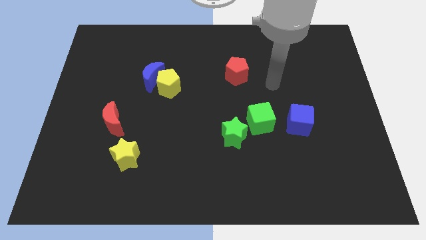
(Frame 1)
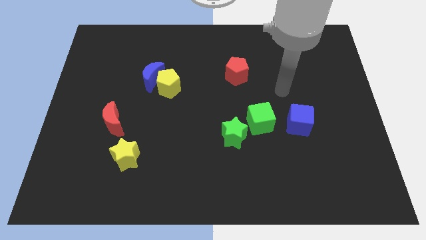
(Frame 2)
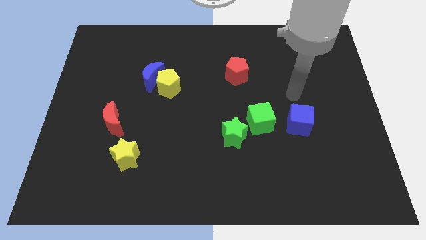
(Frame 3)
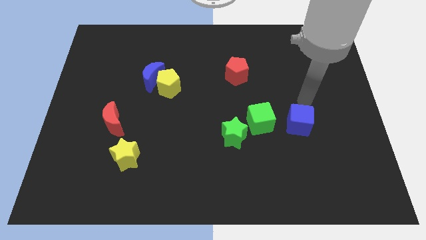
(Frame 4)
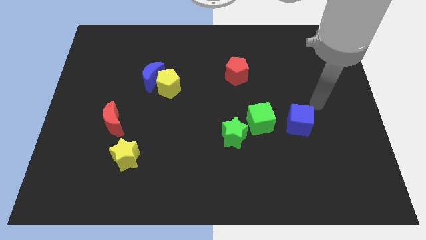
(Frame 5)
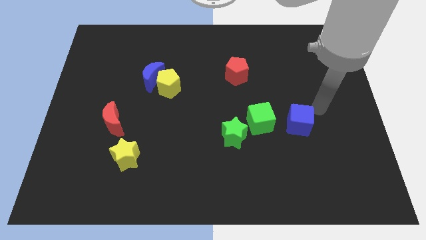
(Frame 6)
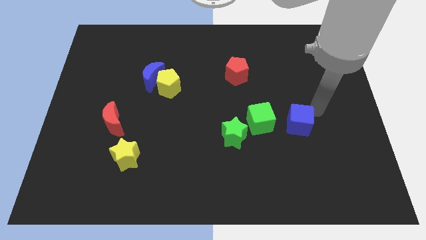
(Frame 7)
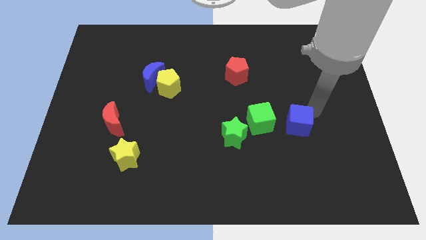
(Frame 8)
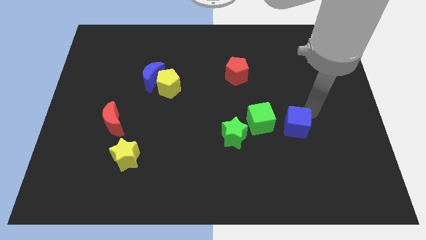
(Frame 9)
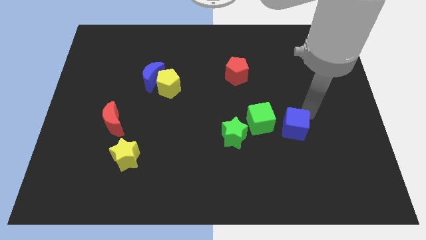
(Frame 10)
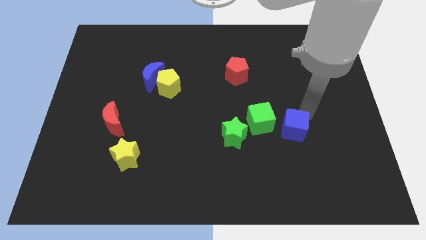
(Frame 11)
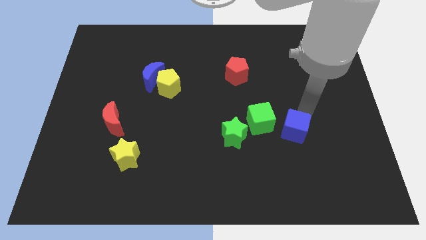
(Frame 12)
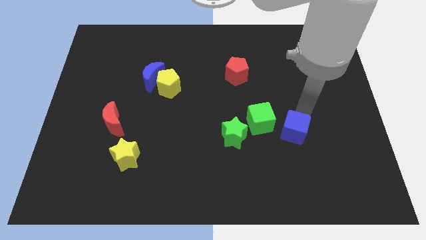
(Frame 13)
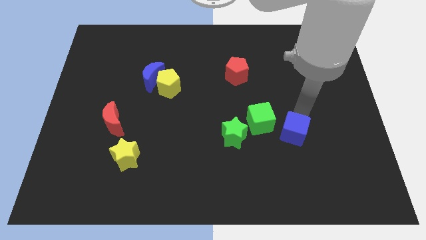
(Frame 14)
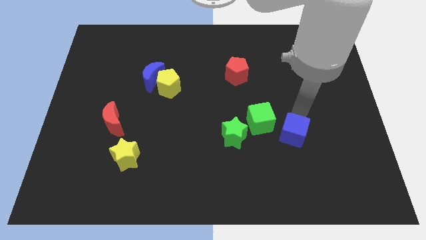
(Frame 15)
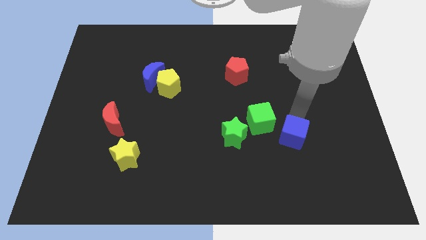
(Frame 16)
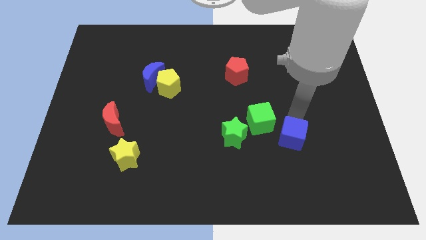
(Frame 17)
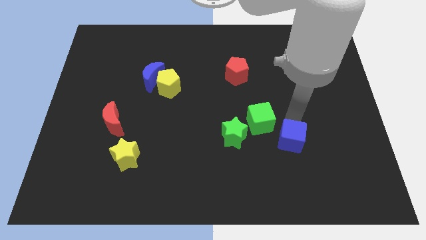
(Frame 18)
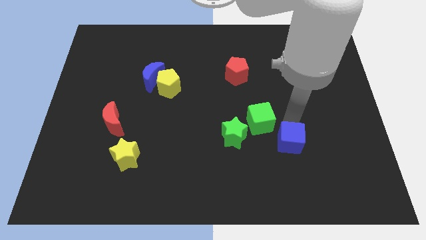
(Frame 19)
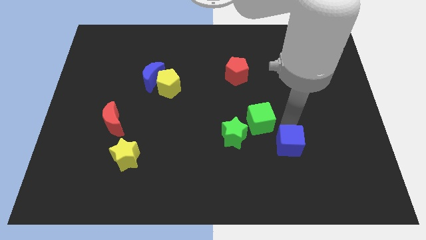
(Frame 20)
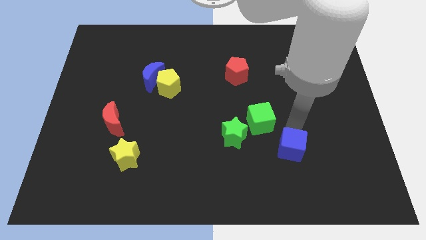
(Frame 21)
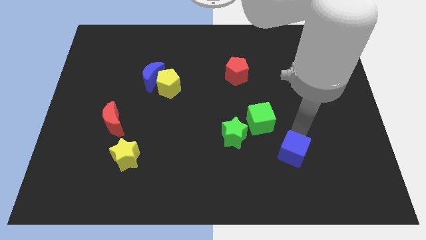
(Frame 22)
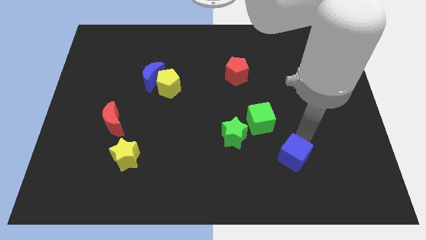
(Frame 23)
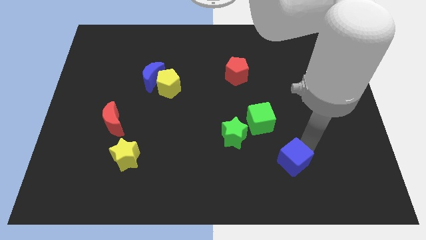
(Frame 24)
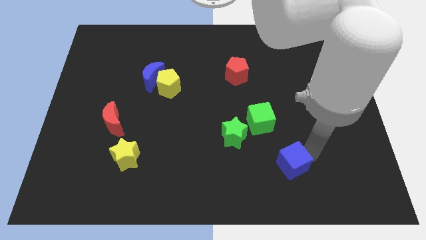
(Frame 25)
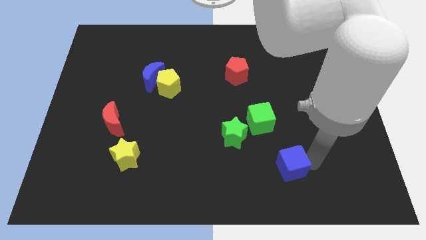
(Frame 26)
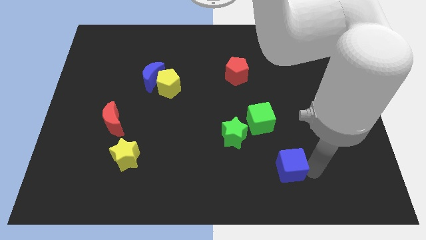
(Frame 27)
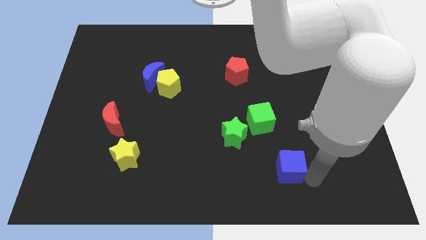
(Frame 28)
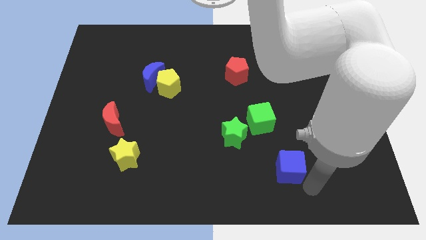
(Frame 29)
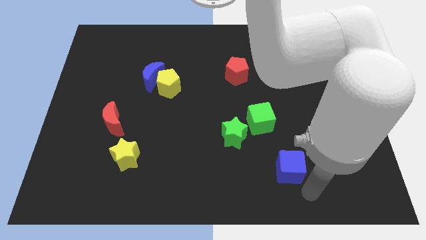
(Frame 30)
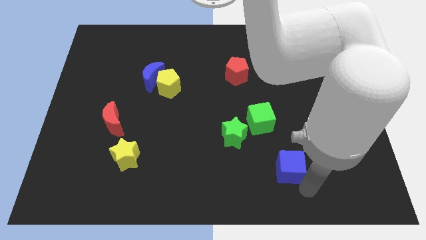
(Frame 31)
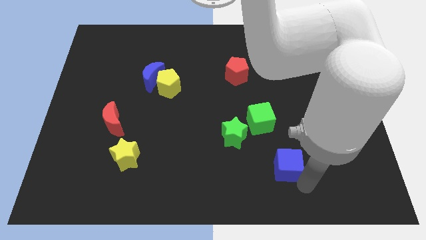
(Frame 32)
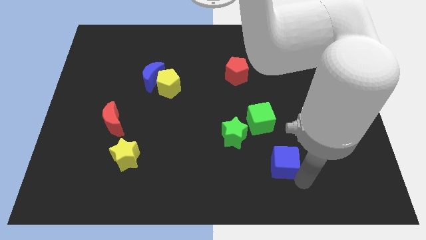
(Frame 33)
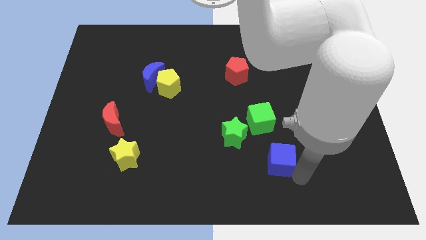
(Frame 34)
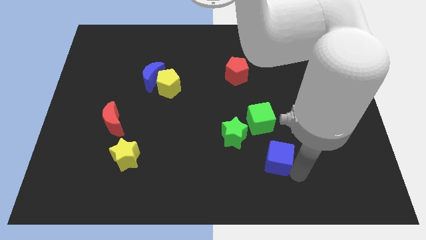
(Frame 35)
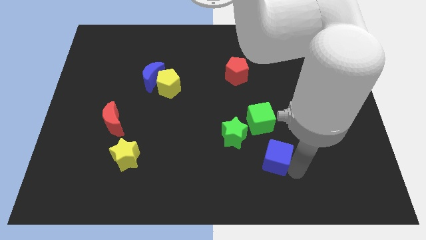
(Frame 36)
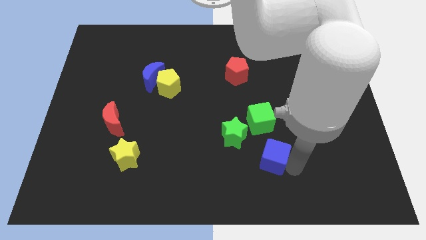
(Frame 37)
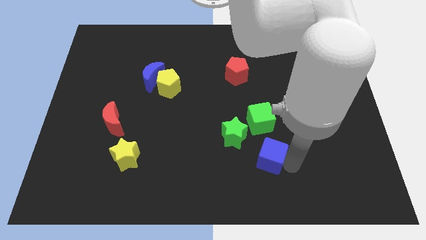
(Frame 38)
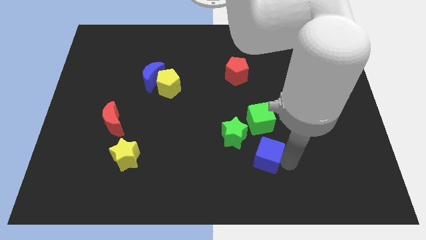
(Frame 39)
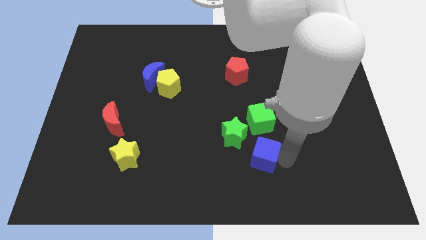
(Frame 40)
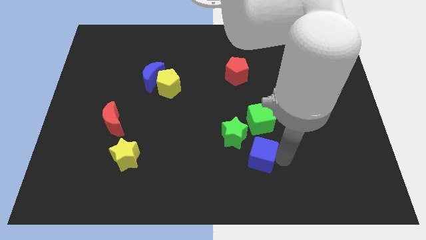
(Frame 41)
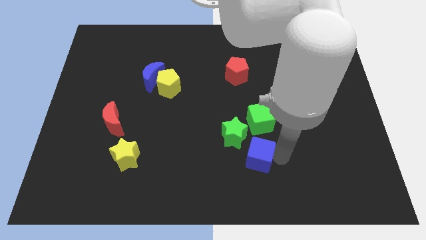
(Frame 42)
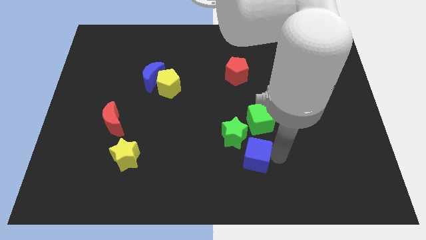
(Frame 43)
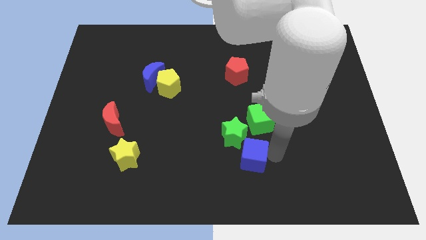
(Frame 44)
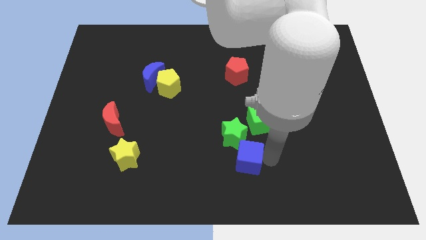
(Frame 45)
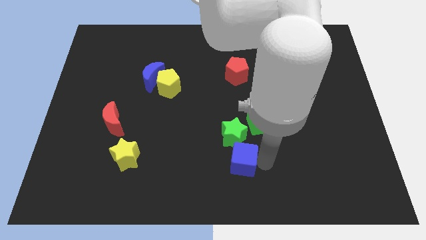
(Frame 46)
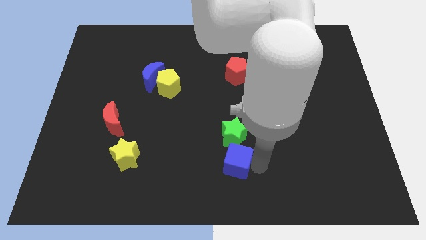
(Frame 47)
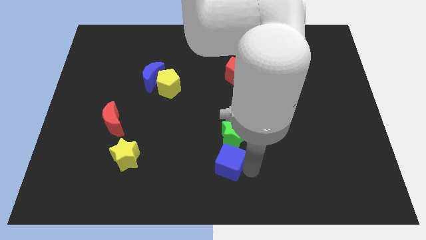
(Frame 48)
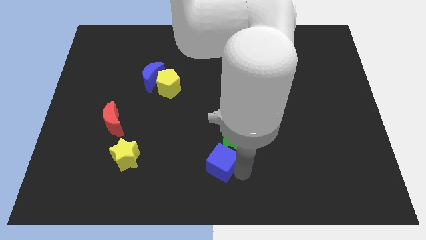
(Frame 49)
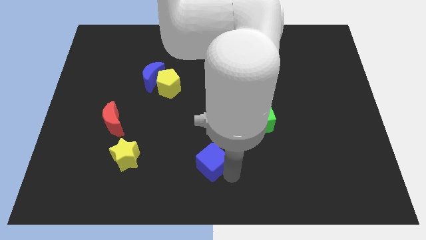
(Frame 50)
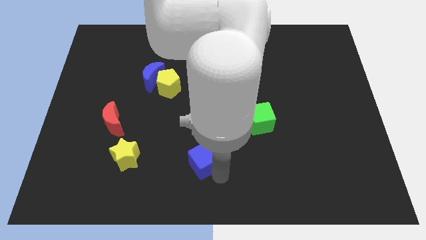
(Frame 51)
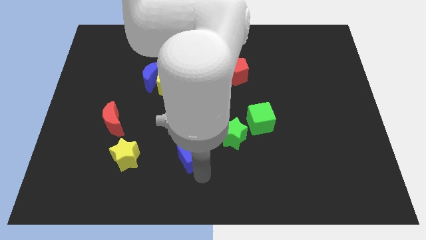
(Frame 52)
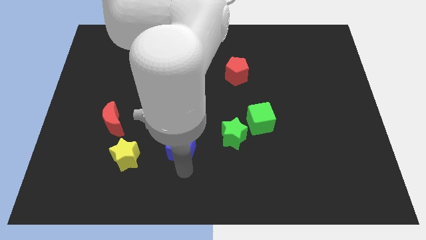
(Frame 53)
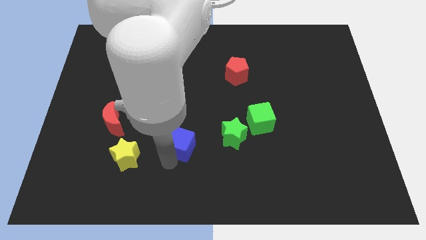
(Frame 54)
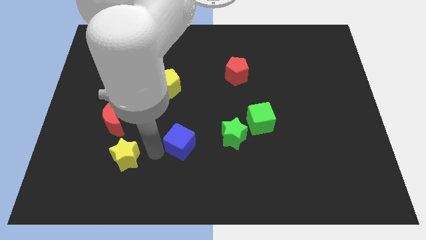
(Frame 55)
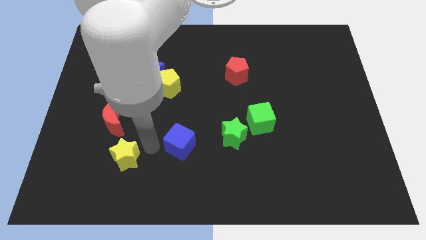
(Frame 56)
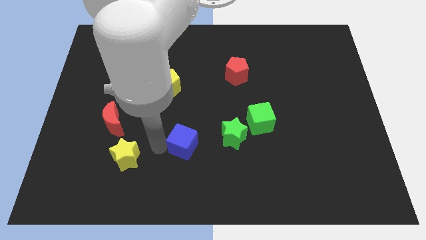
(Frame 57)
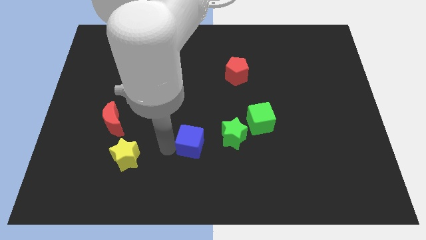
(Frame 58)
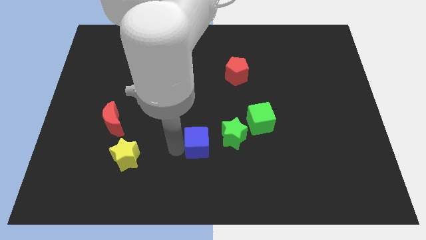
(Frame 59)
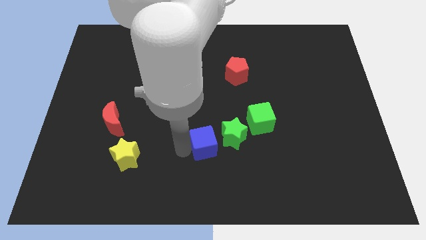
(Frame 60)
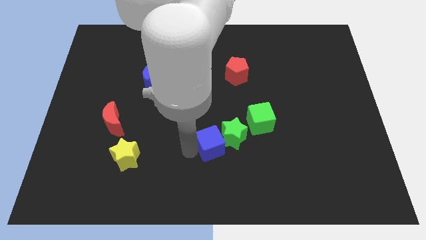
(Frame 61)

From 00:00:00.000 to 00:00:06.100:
push the blue cube next to the green star
